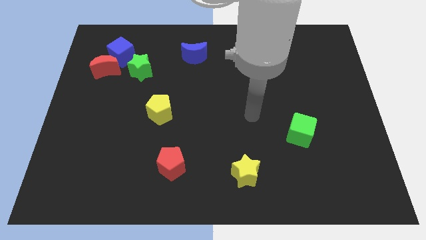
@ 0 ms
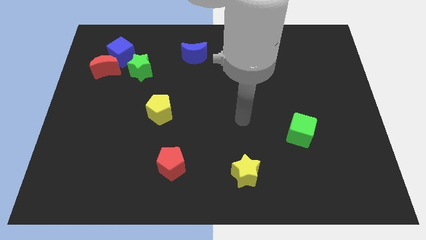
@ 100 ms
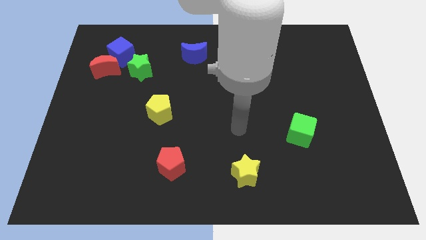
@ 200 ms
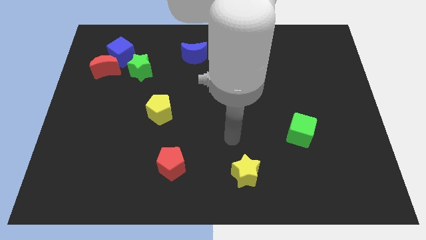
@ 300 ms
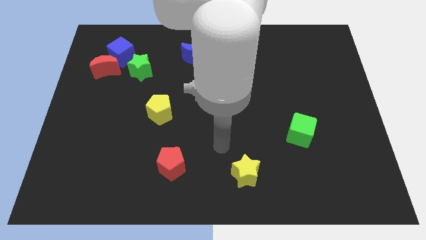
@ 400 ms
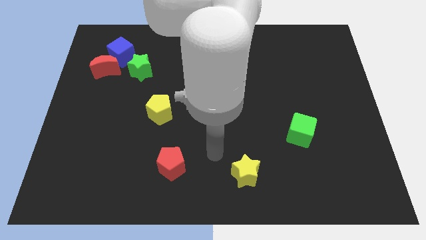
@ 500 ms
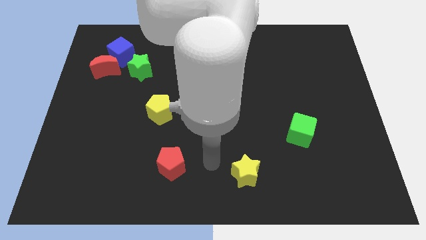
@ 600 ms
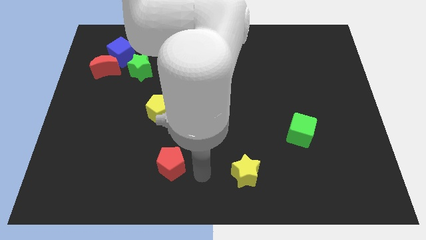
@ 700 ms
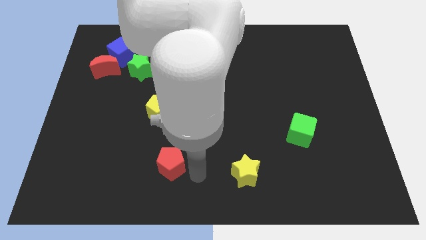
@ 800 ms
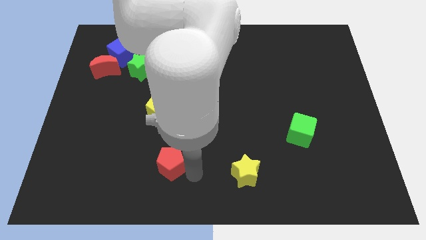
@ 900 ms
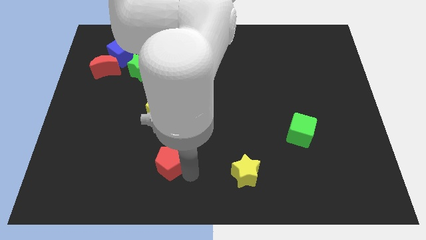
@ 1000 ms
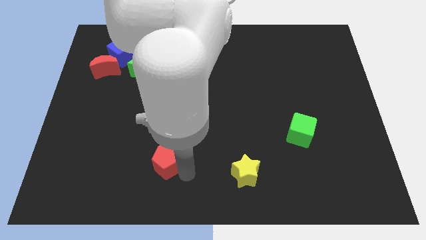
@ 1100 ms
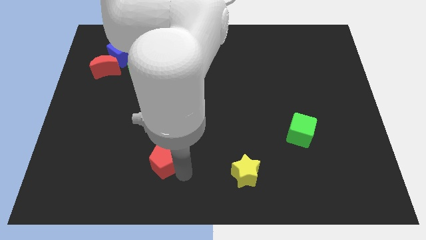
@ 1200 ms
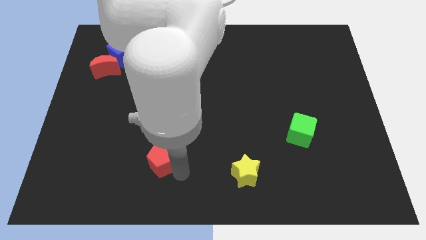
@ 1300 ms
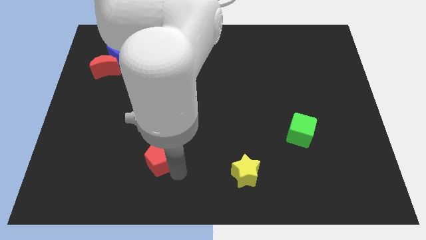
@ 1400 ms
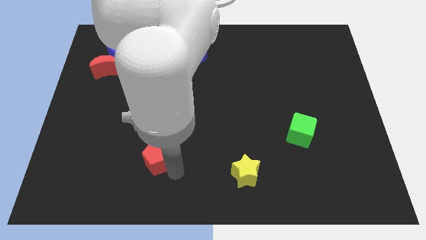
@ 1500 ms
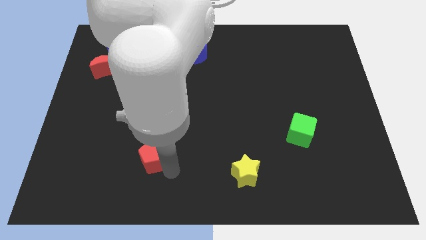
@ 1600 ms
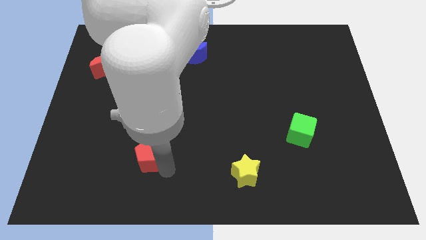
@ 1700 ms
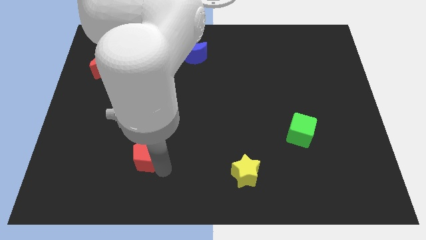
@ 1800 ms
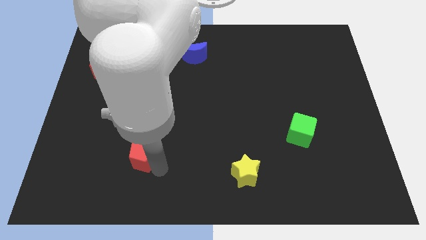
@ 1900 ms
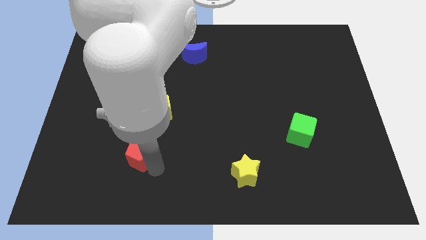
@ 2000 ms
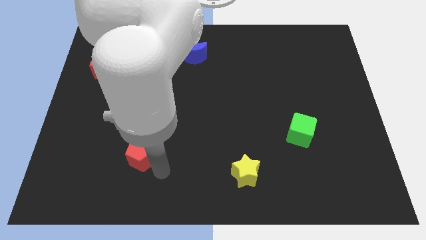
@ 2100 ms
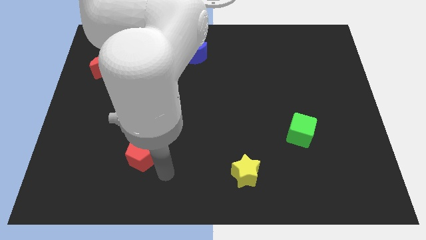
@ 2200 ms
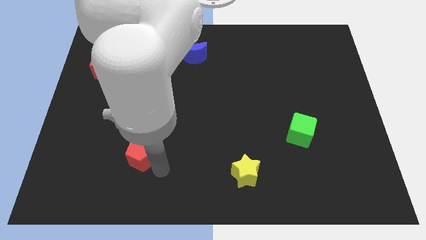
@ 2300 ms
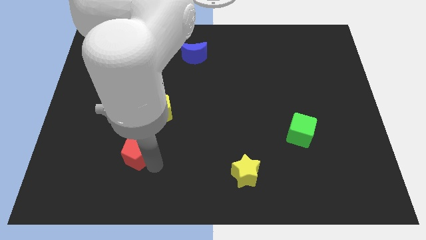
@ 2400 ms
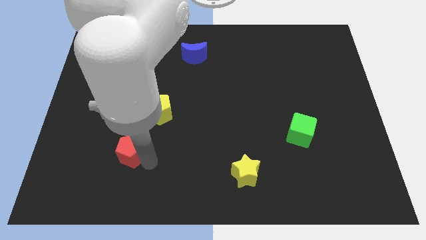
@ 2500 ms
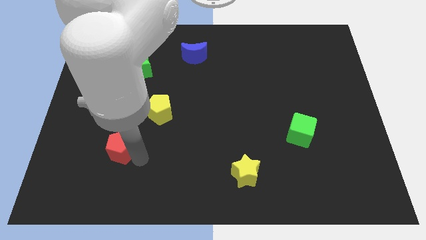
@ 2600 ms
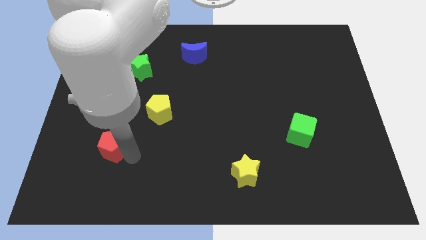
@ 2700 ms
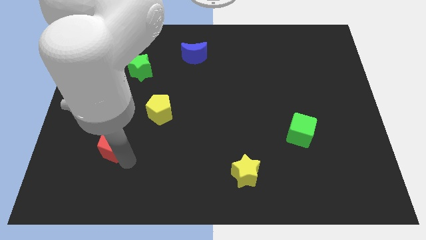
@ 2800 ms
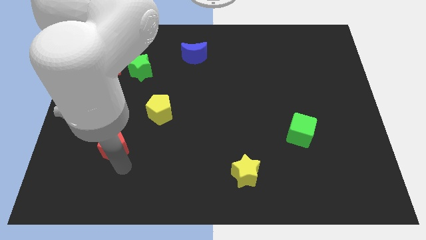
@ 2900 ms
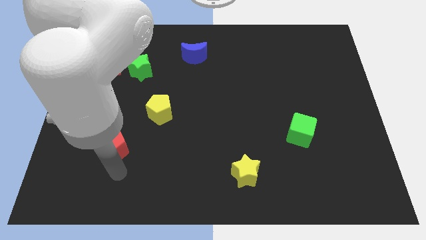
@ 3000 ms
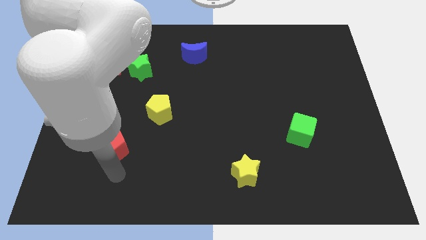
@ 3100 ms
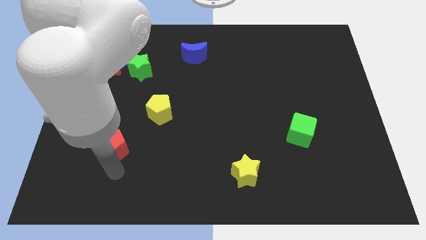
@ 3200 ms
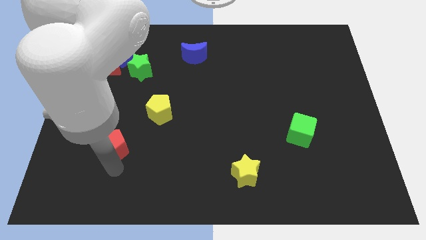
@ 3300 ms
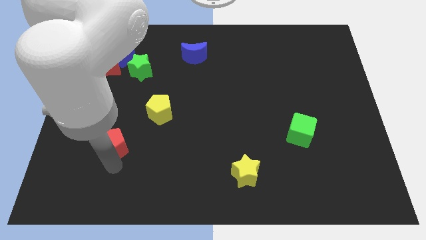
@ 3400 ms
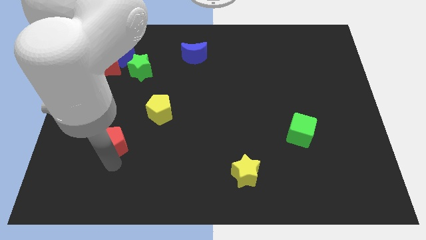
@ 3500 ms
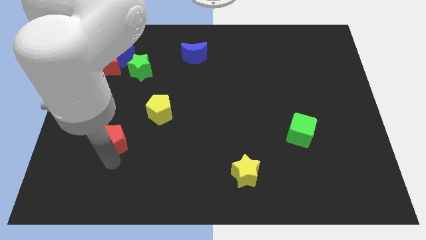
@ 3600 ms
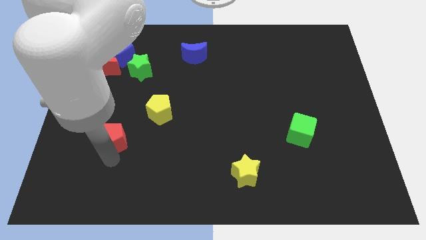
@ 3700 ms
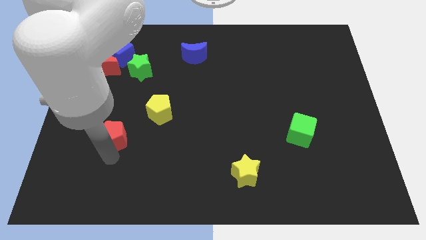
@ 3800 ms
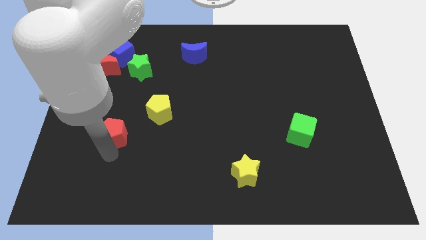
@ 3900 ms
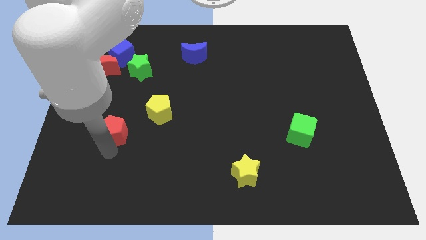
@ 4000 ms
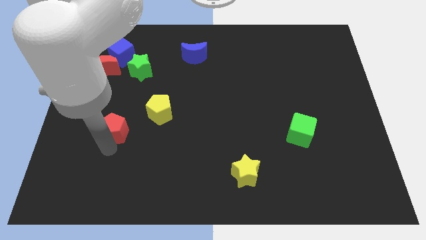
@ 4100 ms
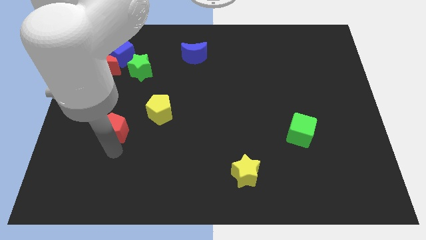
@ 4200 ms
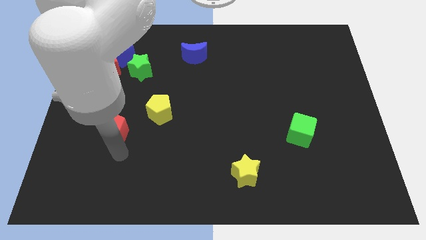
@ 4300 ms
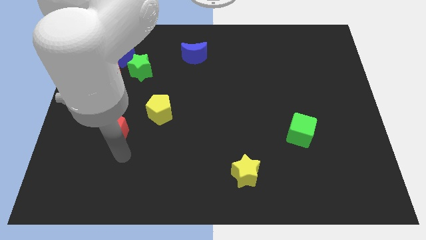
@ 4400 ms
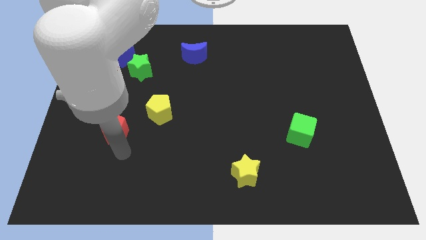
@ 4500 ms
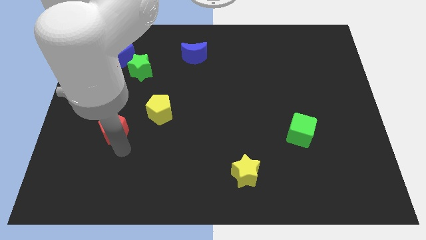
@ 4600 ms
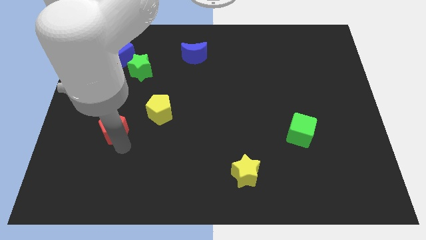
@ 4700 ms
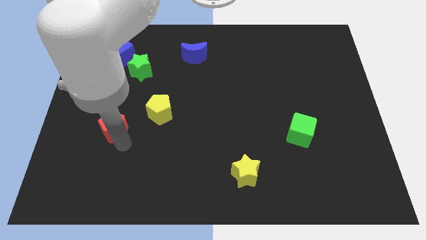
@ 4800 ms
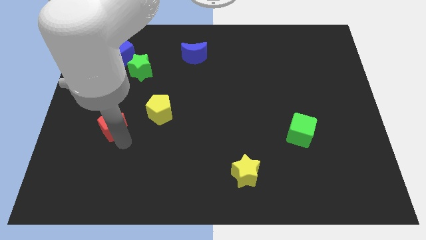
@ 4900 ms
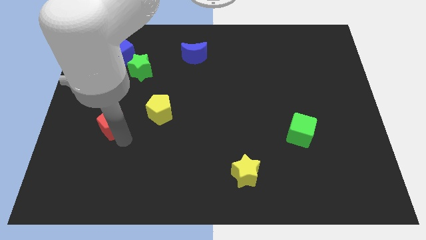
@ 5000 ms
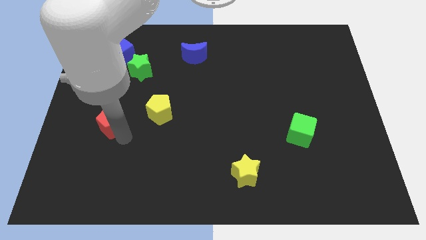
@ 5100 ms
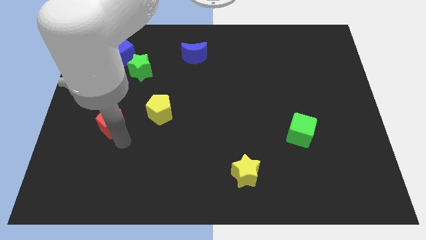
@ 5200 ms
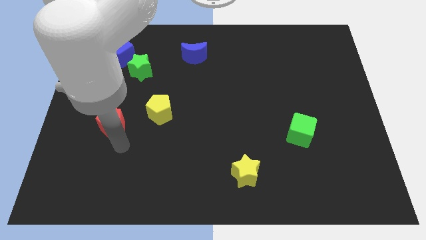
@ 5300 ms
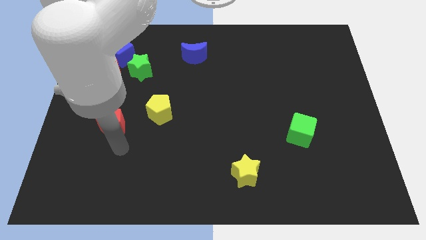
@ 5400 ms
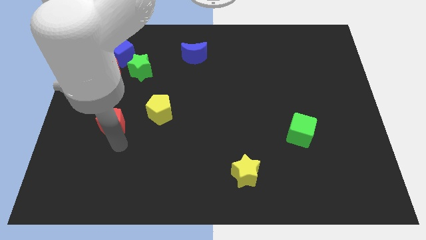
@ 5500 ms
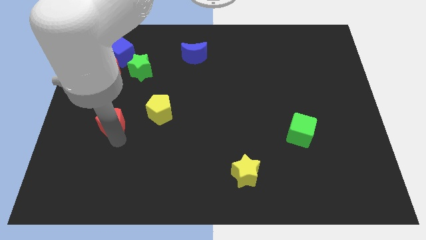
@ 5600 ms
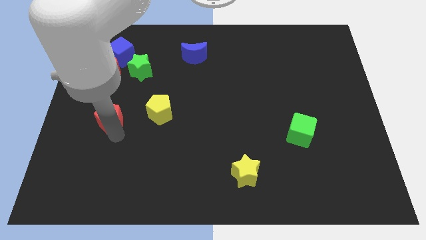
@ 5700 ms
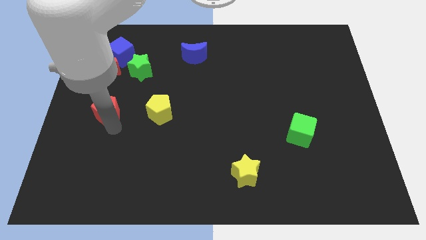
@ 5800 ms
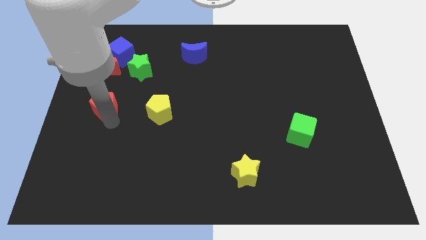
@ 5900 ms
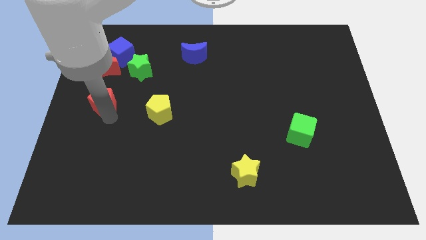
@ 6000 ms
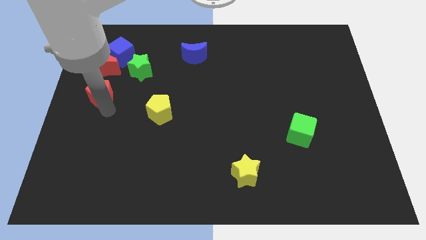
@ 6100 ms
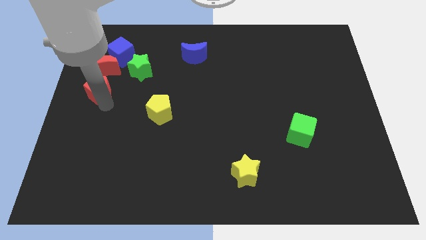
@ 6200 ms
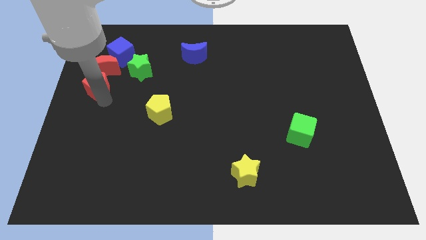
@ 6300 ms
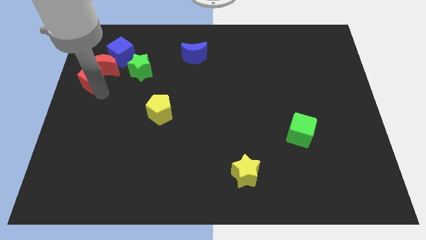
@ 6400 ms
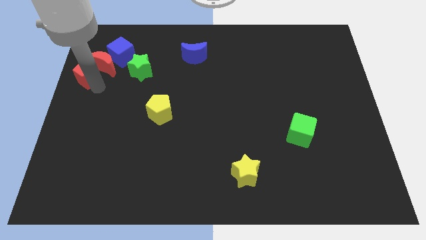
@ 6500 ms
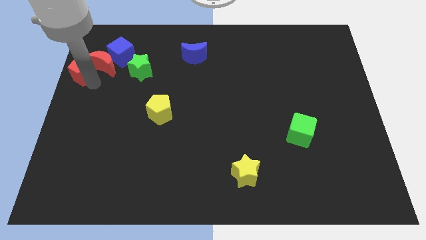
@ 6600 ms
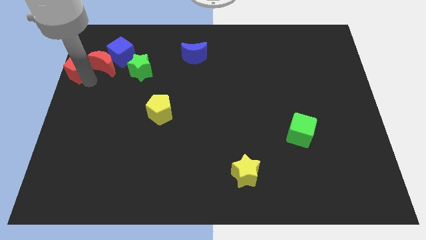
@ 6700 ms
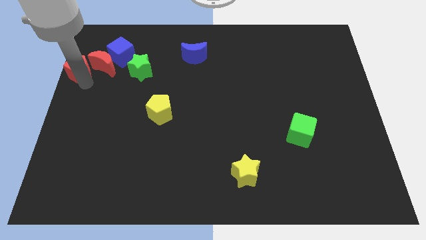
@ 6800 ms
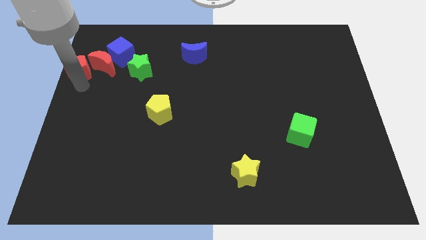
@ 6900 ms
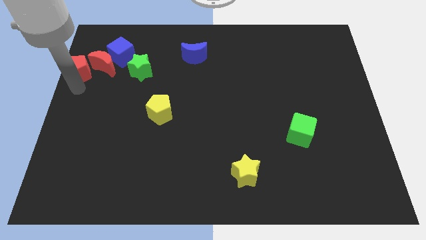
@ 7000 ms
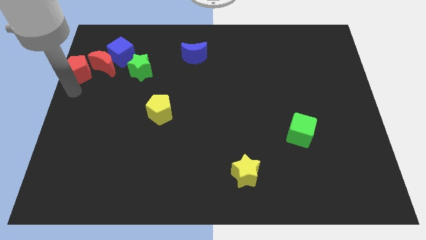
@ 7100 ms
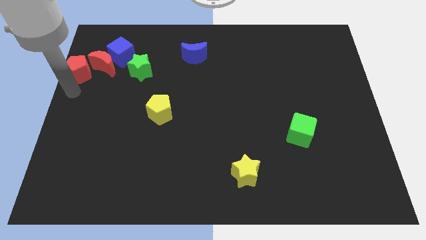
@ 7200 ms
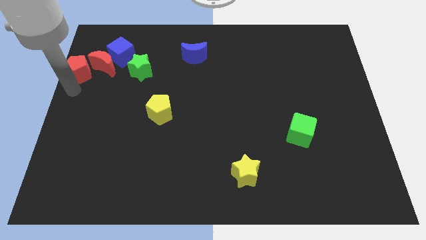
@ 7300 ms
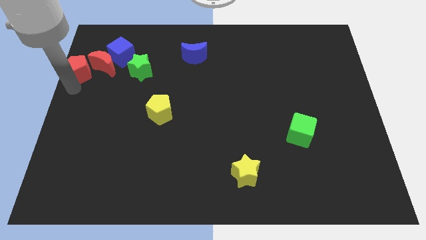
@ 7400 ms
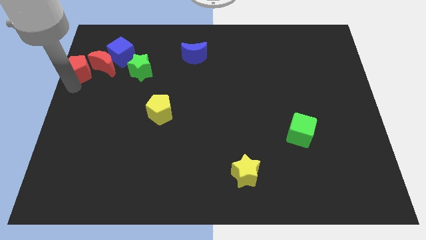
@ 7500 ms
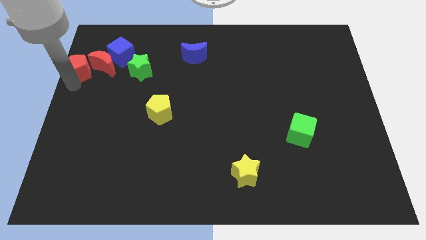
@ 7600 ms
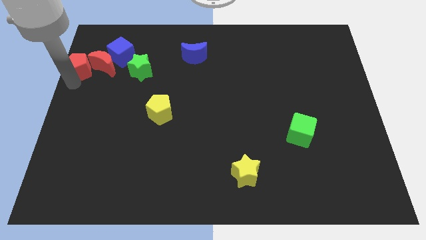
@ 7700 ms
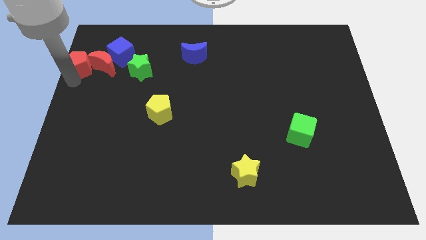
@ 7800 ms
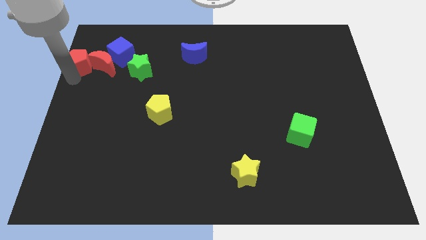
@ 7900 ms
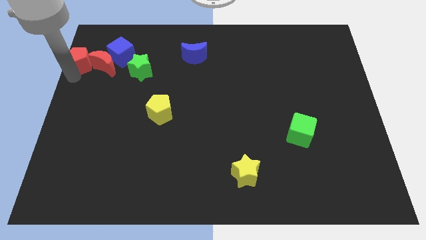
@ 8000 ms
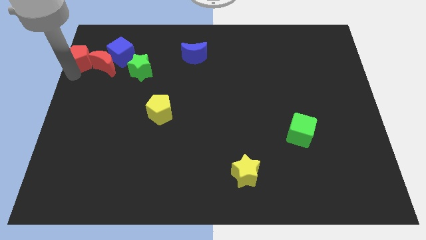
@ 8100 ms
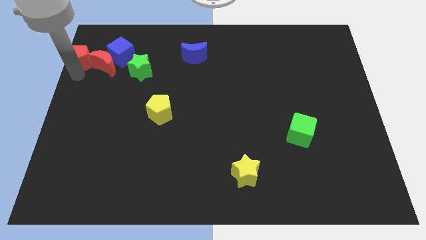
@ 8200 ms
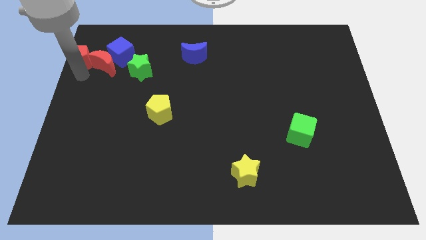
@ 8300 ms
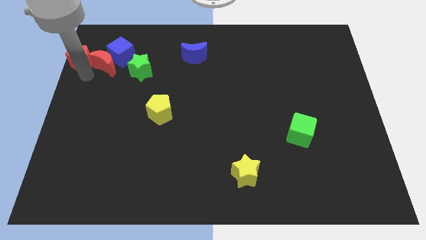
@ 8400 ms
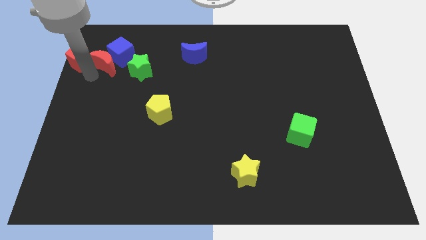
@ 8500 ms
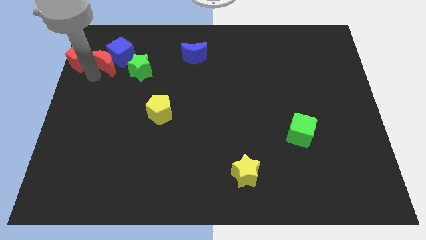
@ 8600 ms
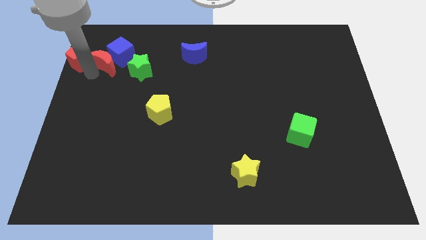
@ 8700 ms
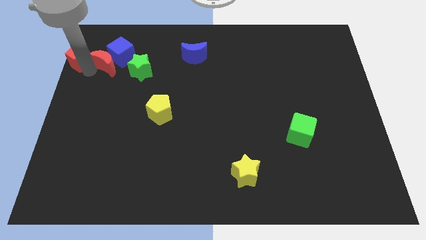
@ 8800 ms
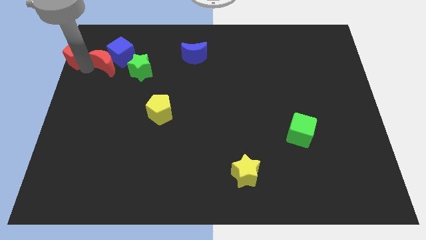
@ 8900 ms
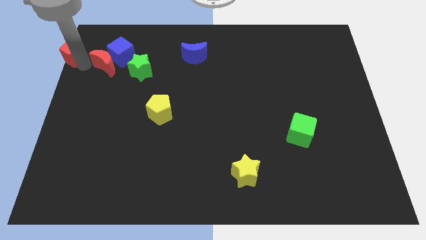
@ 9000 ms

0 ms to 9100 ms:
slide the red pentagon to the upper left corner
